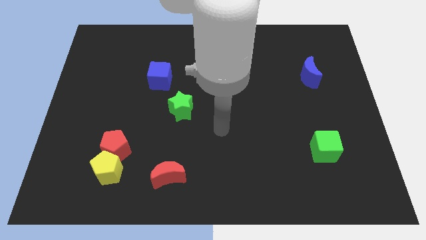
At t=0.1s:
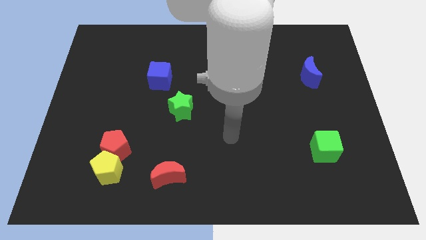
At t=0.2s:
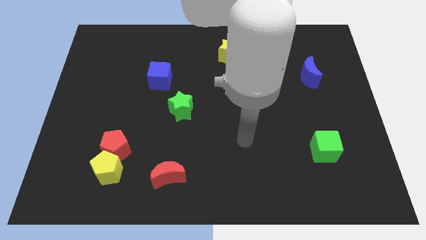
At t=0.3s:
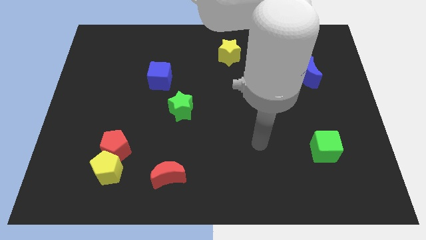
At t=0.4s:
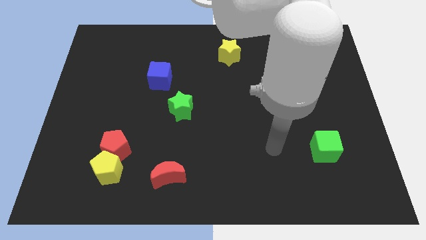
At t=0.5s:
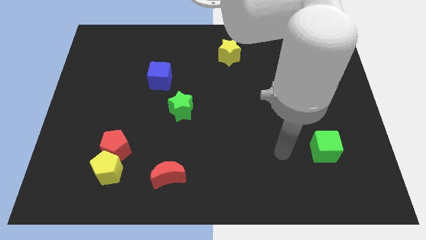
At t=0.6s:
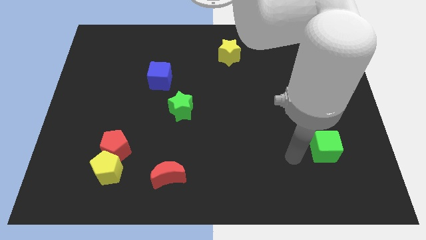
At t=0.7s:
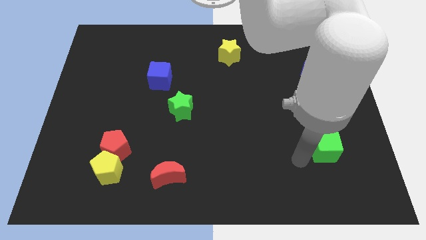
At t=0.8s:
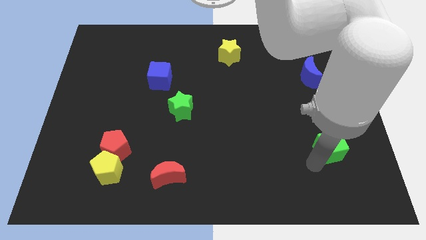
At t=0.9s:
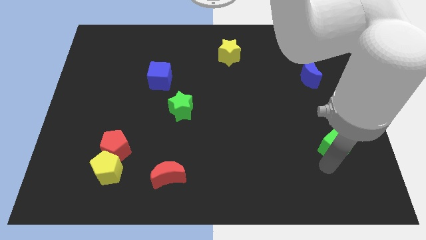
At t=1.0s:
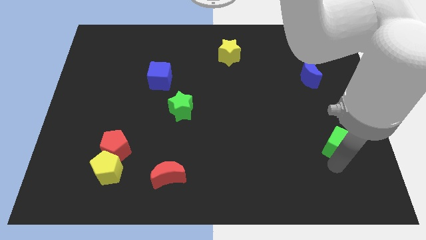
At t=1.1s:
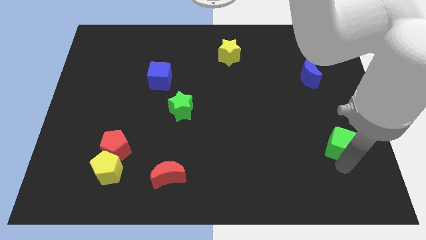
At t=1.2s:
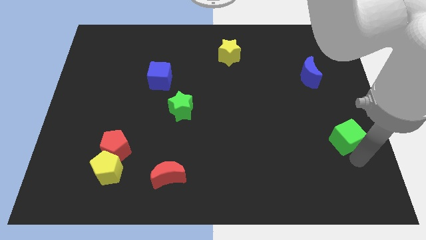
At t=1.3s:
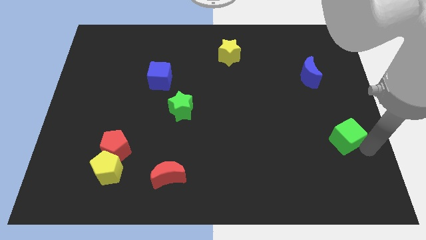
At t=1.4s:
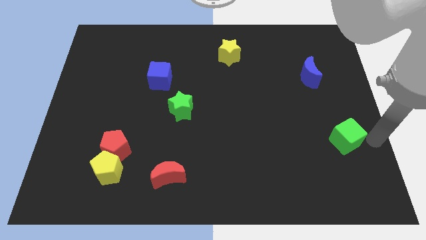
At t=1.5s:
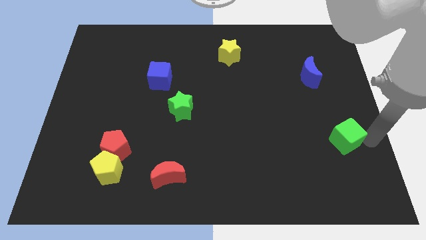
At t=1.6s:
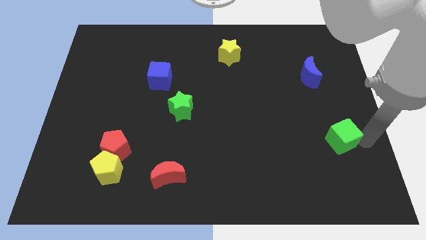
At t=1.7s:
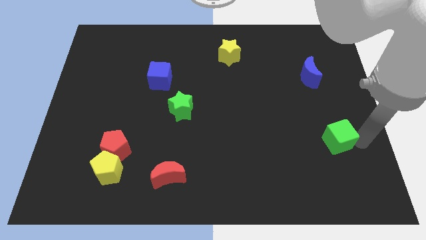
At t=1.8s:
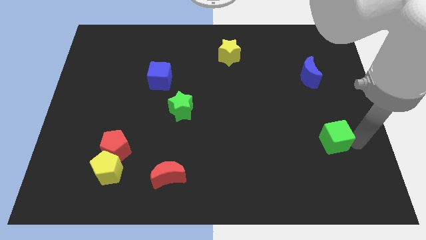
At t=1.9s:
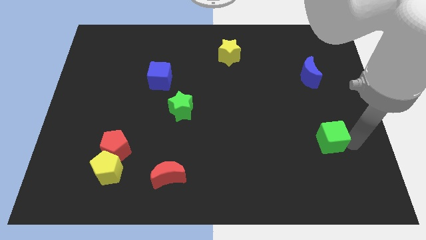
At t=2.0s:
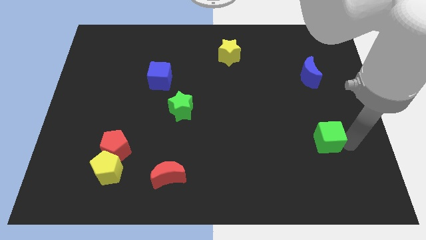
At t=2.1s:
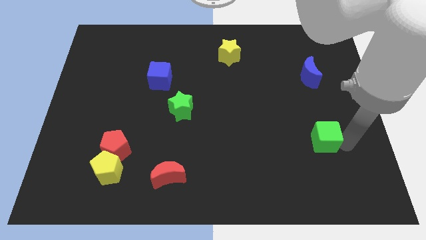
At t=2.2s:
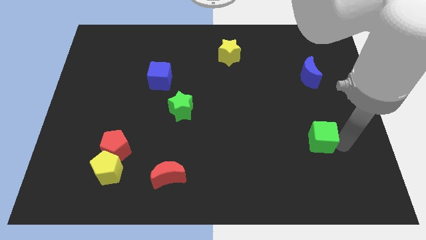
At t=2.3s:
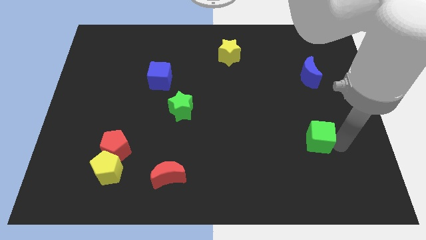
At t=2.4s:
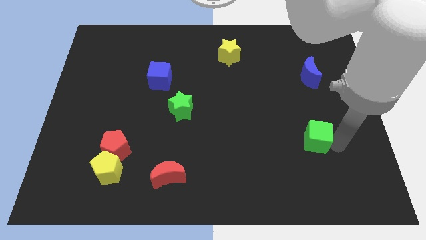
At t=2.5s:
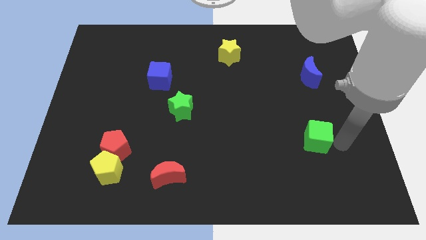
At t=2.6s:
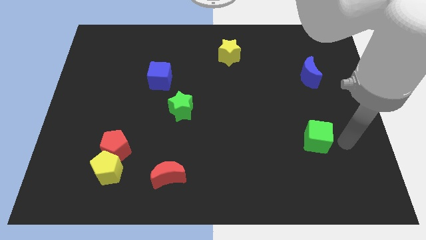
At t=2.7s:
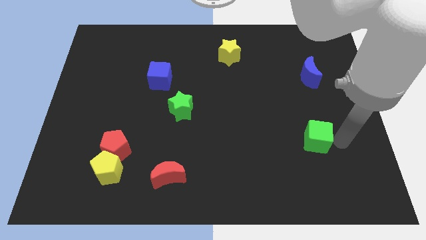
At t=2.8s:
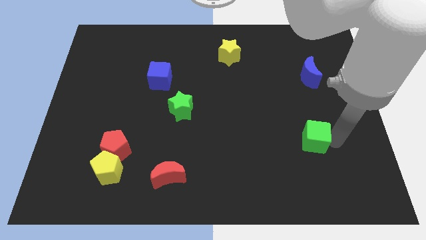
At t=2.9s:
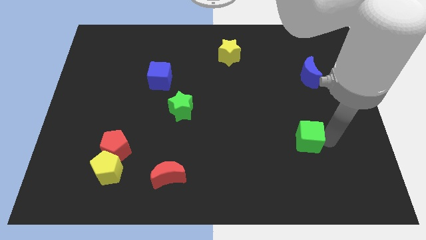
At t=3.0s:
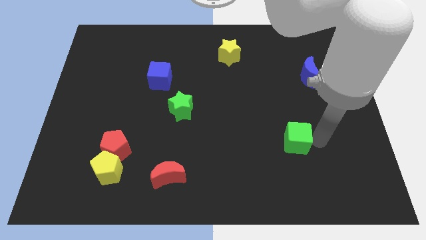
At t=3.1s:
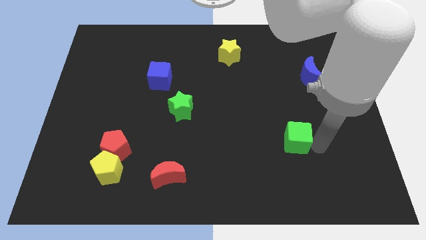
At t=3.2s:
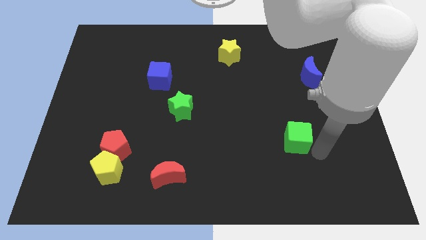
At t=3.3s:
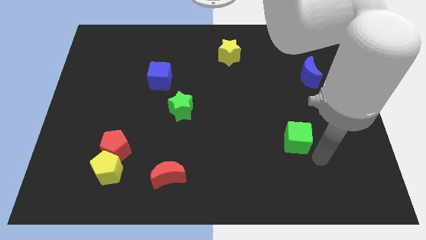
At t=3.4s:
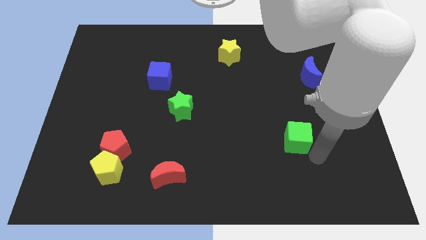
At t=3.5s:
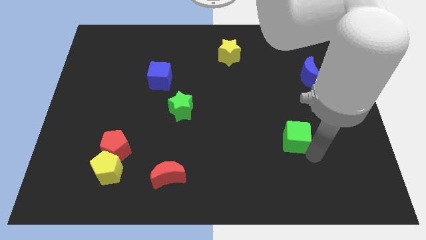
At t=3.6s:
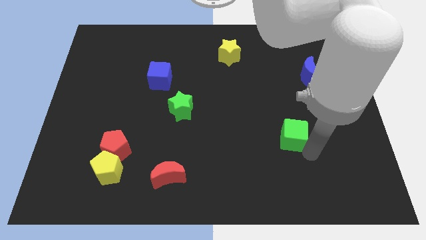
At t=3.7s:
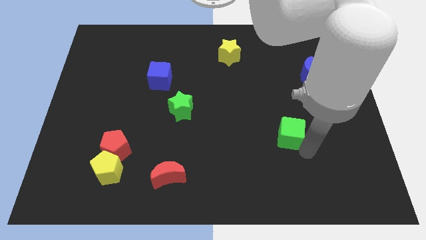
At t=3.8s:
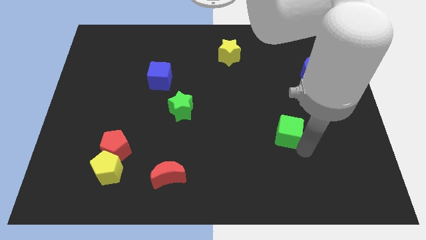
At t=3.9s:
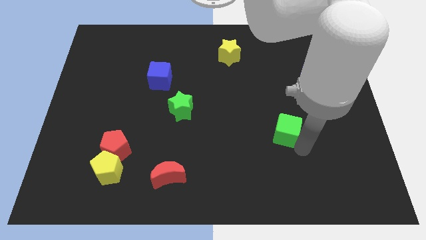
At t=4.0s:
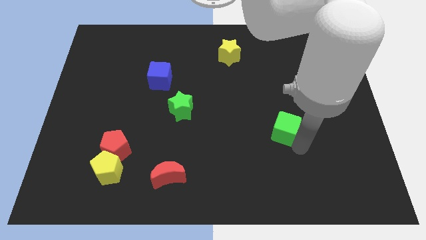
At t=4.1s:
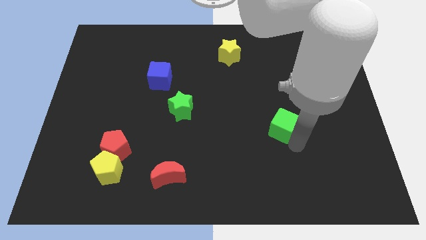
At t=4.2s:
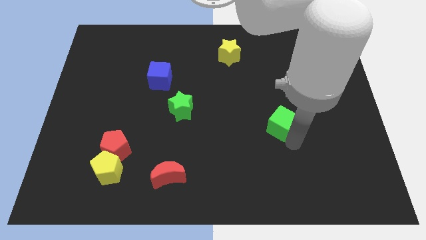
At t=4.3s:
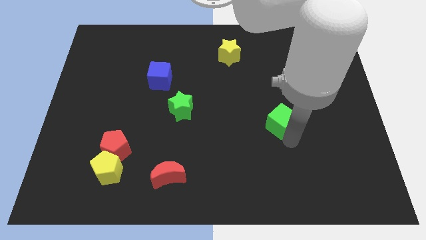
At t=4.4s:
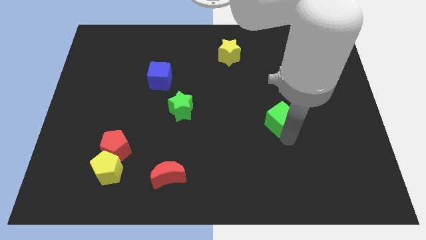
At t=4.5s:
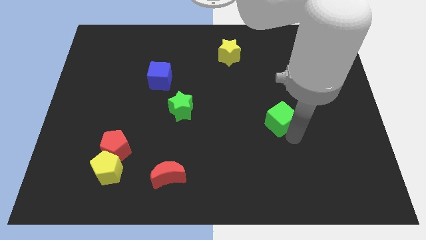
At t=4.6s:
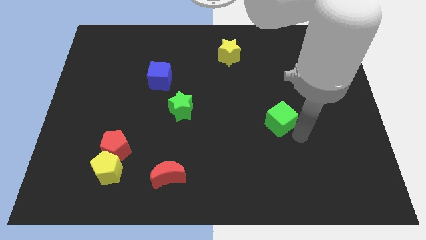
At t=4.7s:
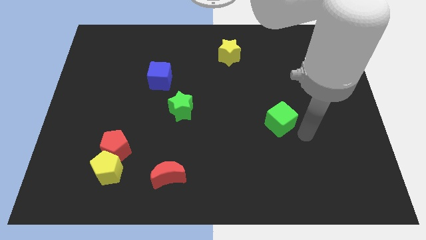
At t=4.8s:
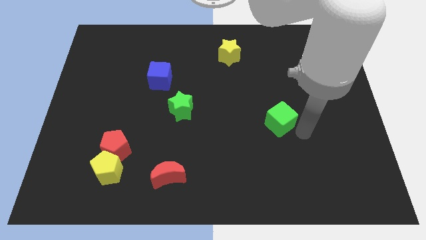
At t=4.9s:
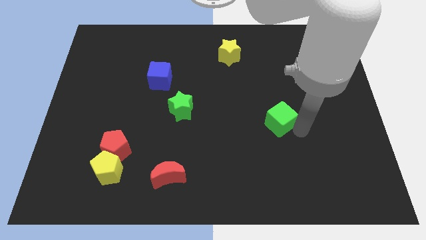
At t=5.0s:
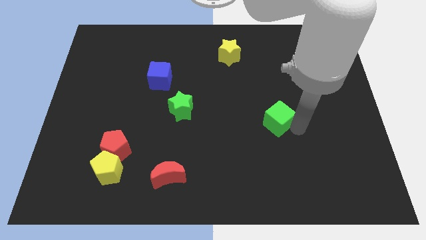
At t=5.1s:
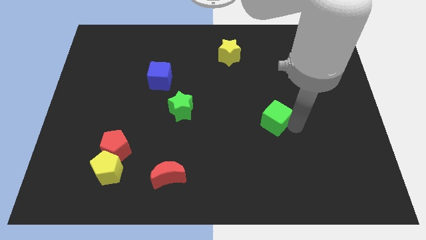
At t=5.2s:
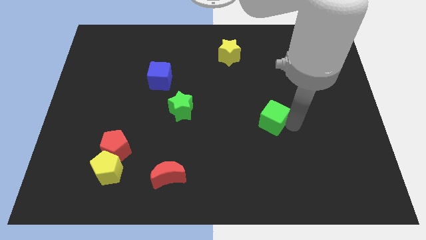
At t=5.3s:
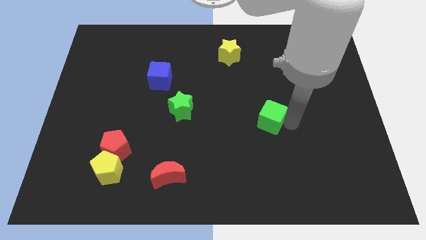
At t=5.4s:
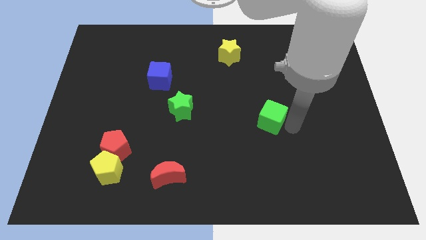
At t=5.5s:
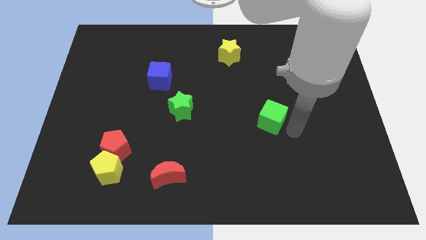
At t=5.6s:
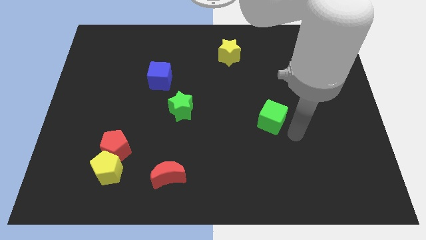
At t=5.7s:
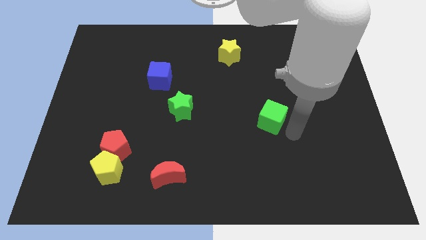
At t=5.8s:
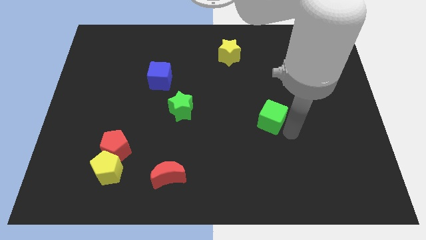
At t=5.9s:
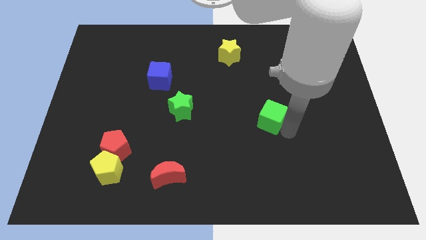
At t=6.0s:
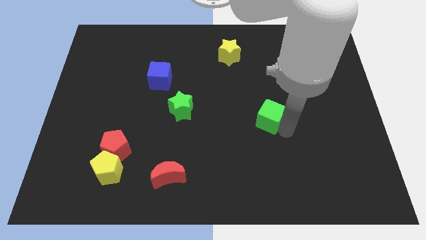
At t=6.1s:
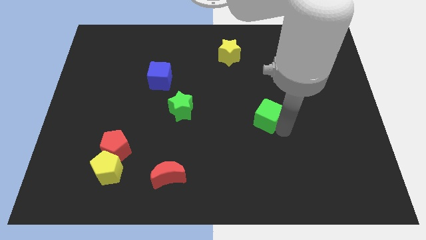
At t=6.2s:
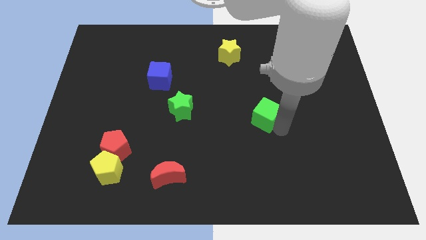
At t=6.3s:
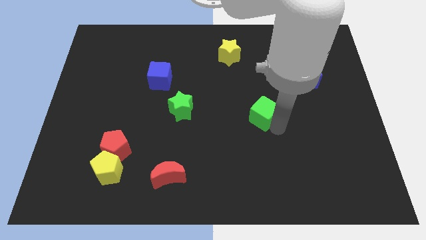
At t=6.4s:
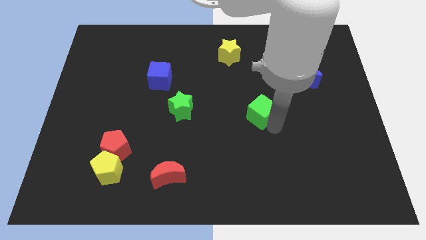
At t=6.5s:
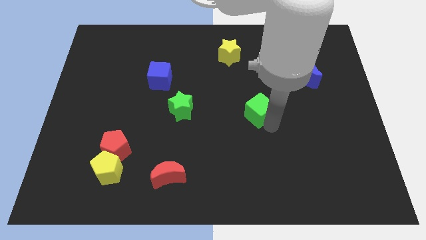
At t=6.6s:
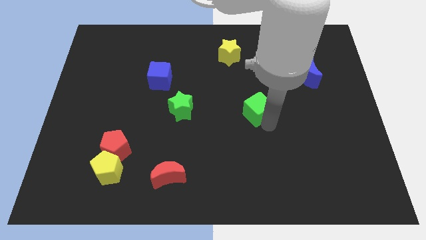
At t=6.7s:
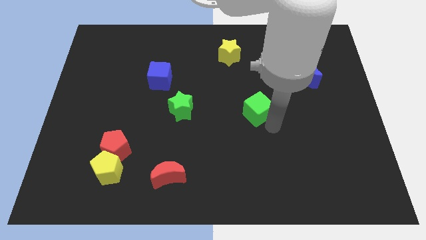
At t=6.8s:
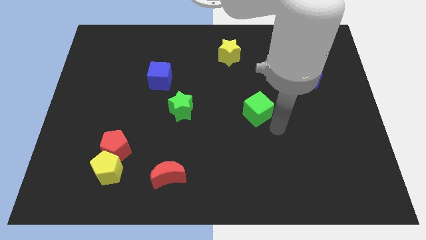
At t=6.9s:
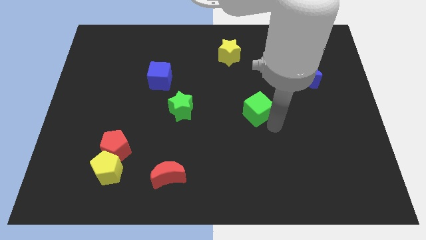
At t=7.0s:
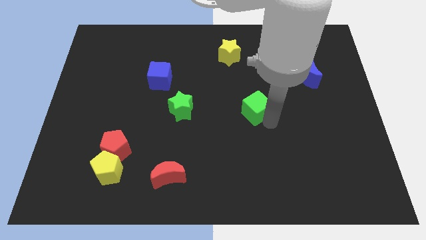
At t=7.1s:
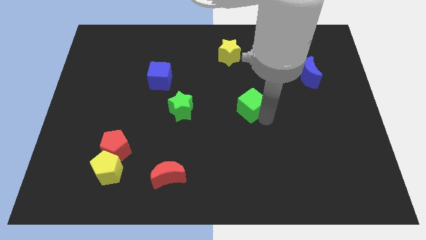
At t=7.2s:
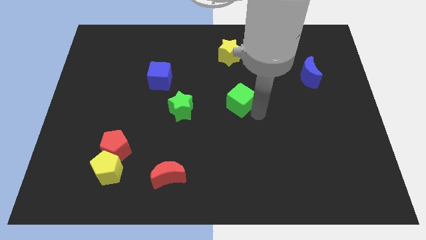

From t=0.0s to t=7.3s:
move the green cube up and left diagonally

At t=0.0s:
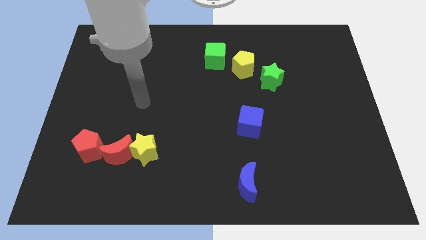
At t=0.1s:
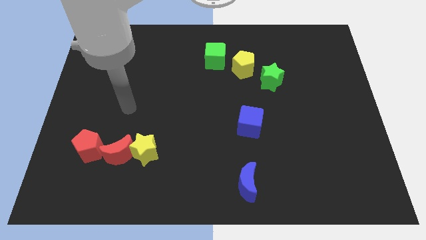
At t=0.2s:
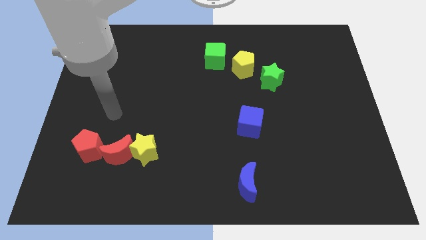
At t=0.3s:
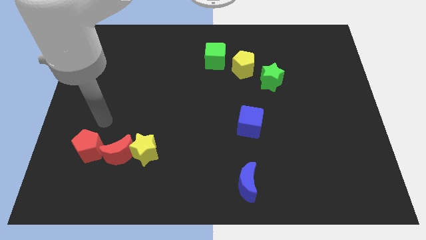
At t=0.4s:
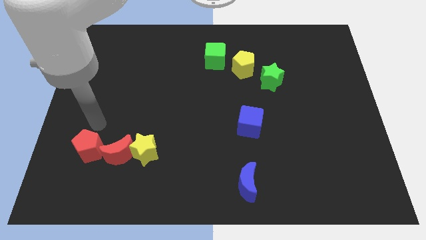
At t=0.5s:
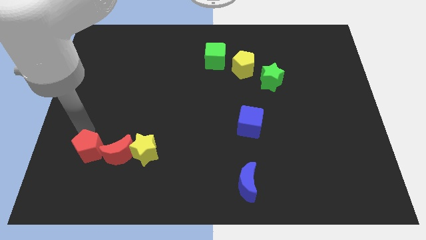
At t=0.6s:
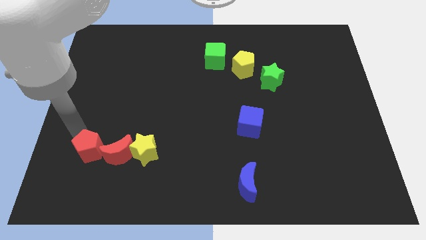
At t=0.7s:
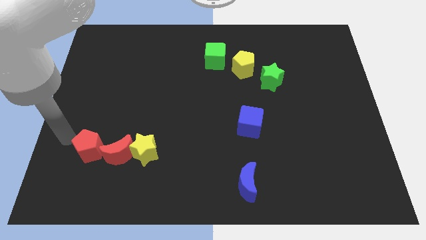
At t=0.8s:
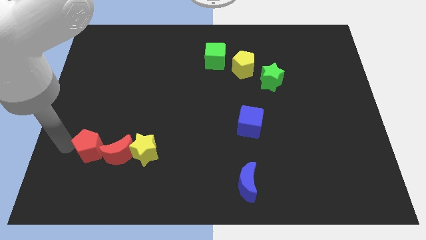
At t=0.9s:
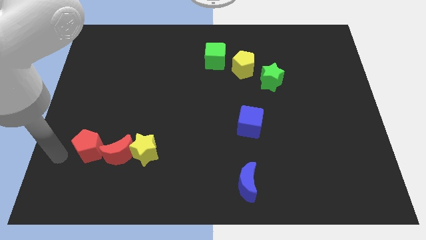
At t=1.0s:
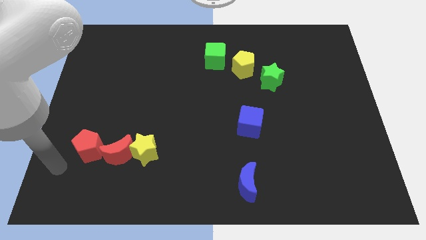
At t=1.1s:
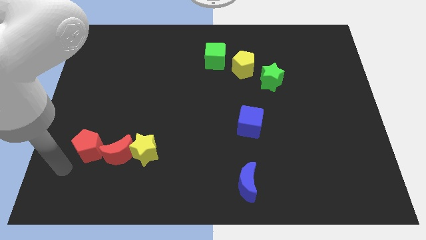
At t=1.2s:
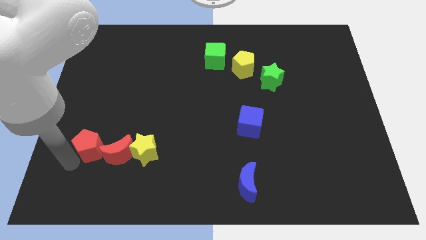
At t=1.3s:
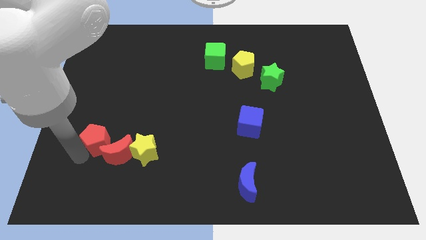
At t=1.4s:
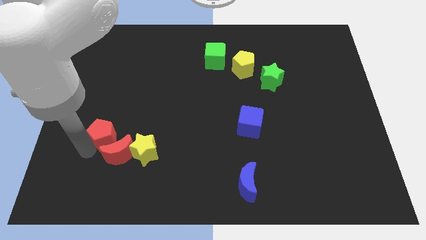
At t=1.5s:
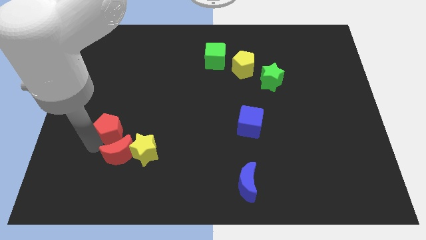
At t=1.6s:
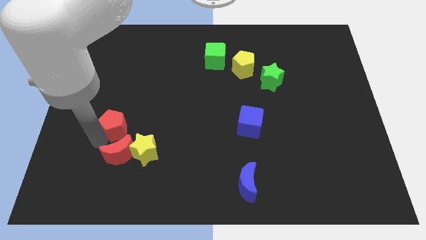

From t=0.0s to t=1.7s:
push the red pentagon upwards and right diagonally somewhat
